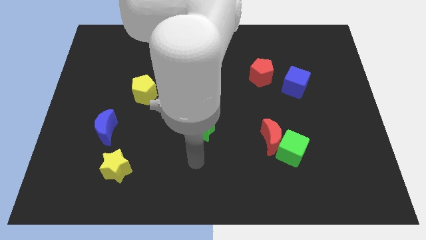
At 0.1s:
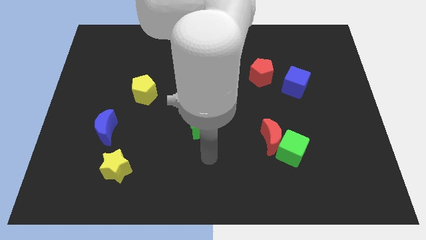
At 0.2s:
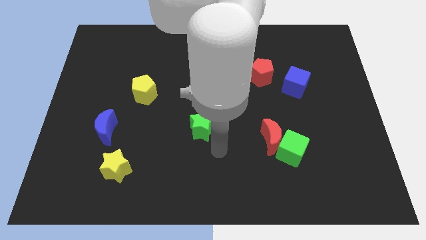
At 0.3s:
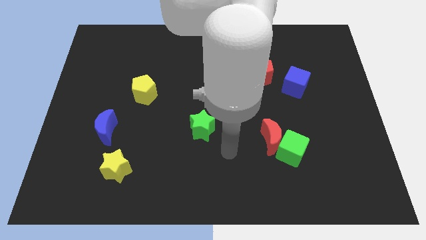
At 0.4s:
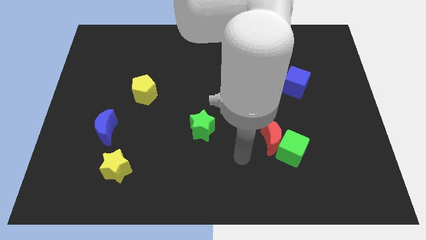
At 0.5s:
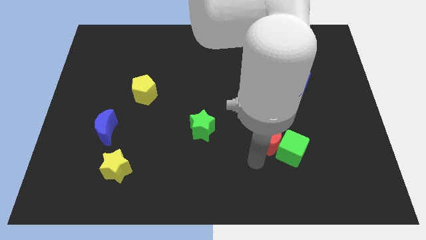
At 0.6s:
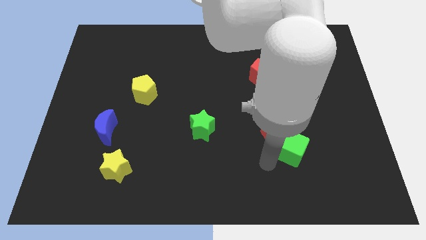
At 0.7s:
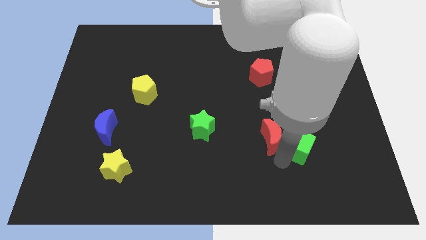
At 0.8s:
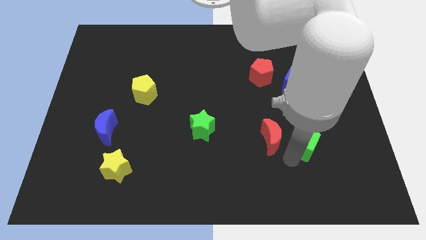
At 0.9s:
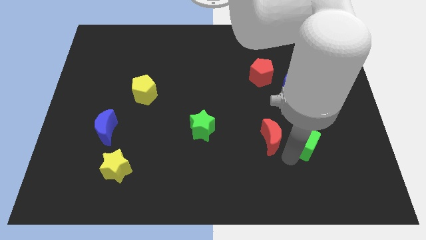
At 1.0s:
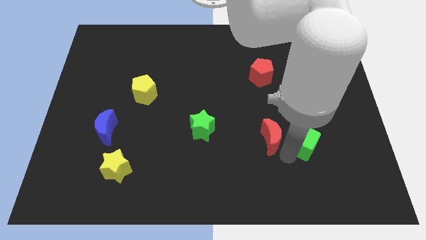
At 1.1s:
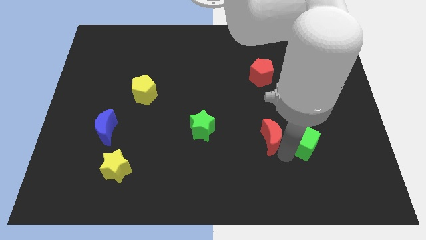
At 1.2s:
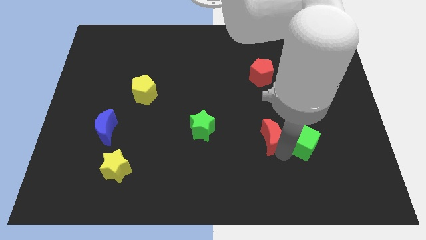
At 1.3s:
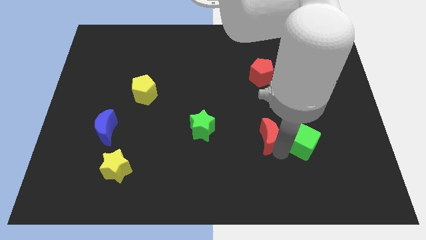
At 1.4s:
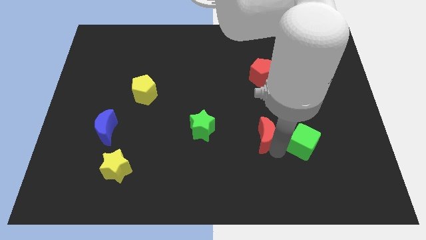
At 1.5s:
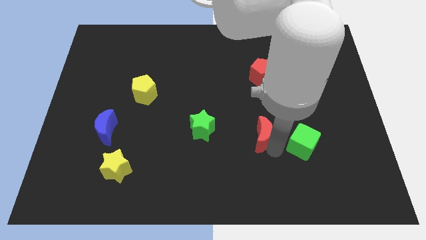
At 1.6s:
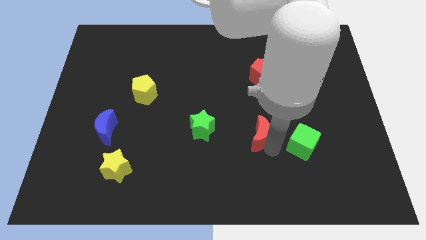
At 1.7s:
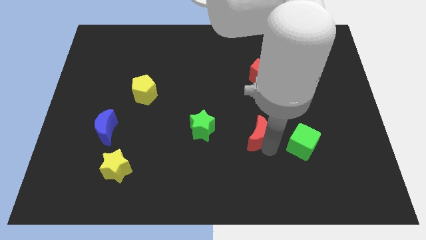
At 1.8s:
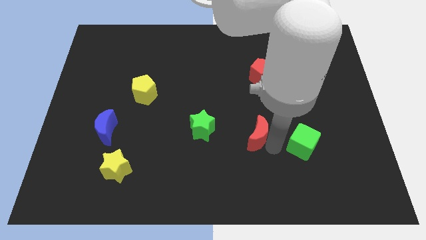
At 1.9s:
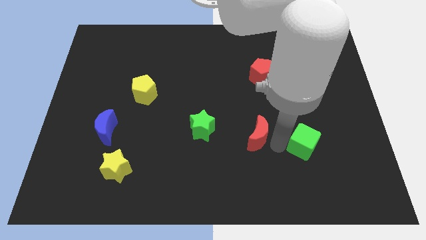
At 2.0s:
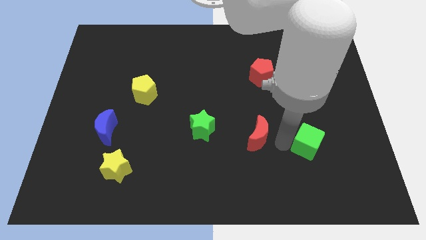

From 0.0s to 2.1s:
move the red moon away from the green cube

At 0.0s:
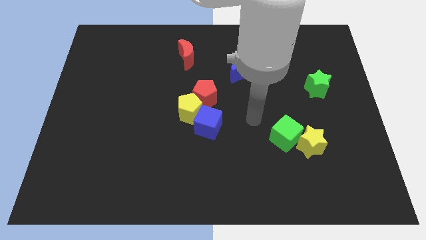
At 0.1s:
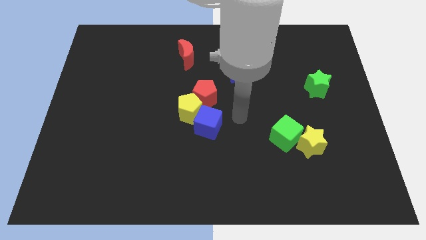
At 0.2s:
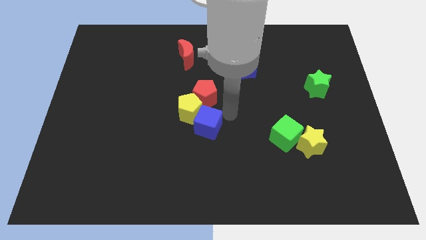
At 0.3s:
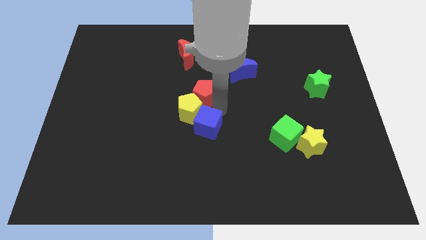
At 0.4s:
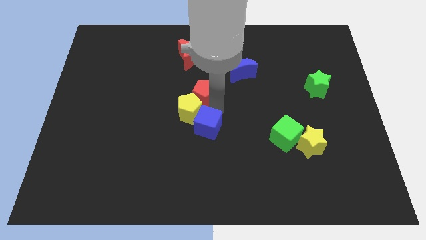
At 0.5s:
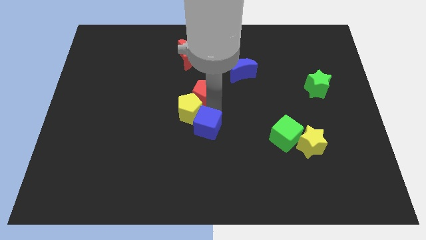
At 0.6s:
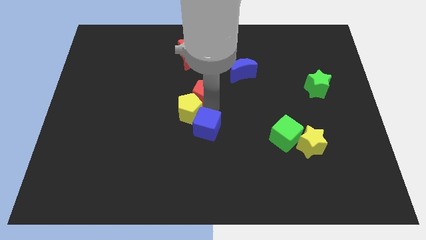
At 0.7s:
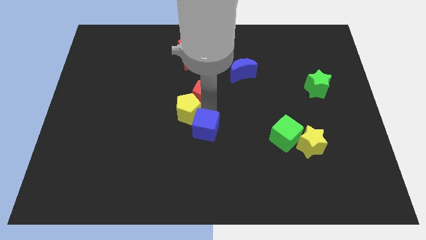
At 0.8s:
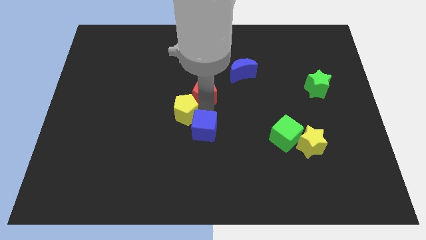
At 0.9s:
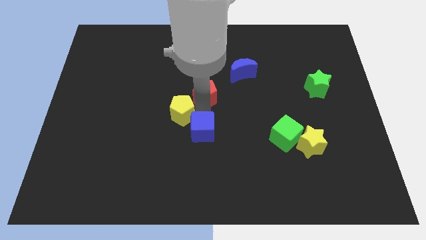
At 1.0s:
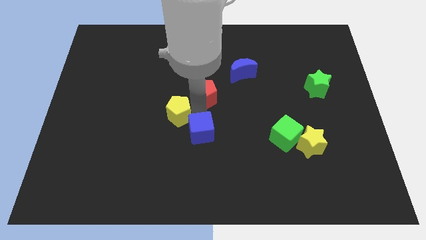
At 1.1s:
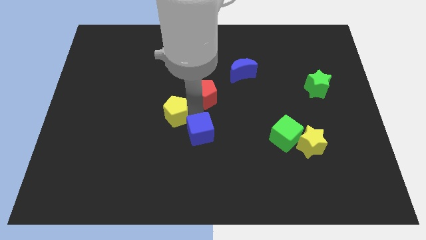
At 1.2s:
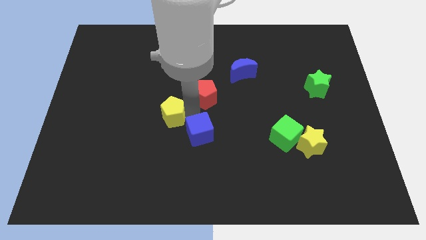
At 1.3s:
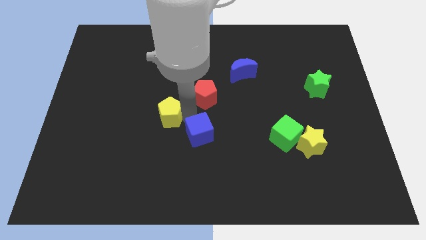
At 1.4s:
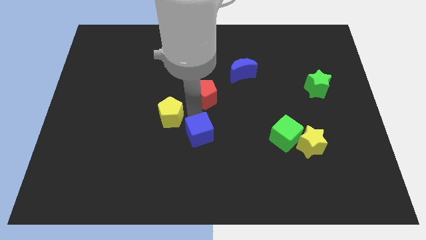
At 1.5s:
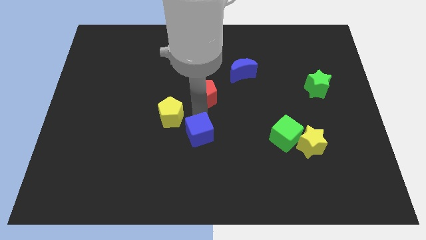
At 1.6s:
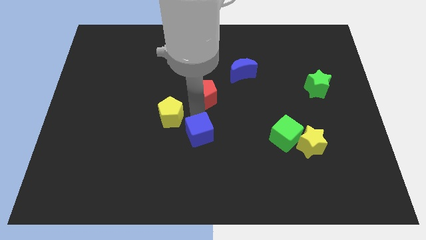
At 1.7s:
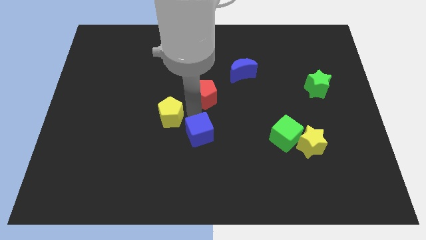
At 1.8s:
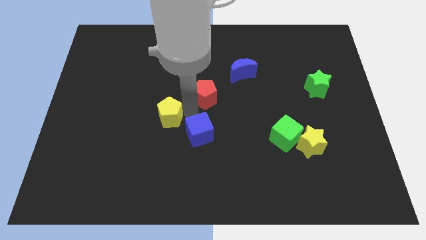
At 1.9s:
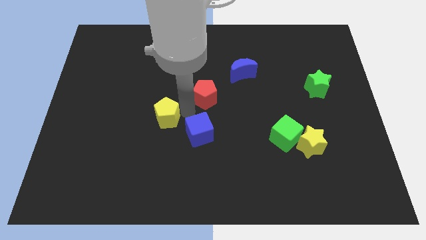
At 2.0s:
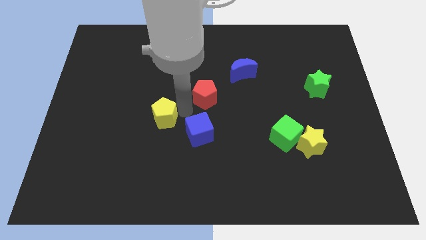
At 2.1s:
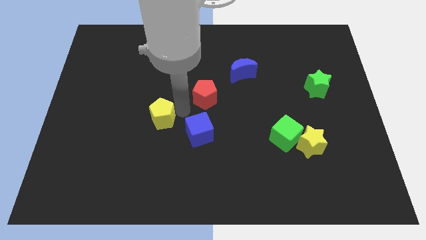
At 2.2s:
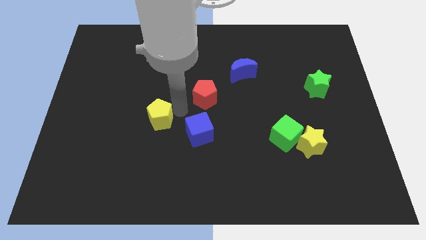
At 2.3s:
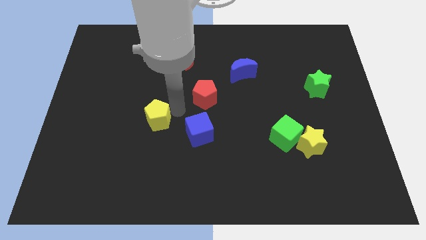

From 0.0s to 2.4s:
pull the yellow pentagon apart from the red pentagon and blue cube

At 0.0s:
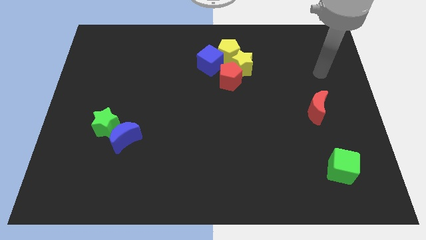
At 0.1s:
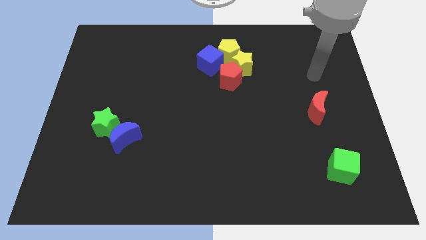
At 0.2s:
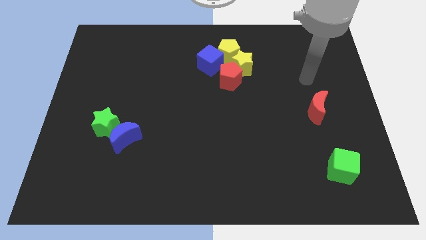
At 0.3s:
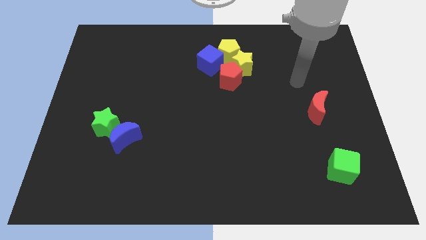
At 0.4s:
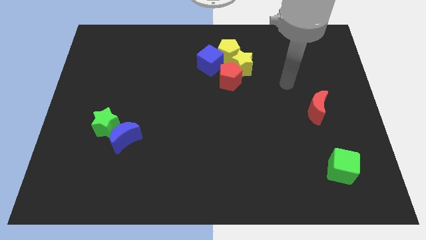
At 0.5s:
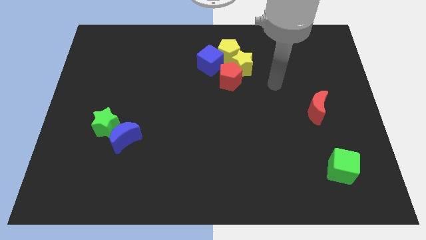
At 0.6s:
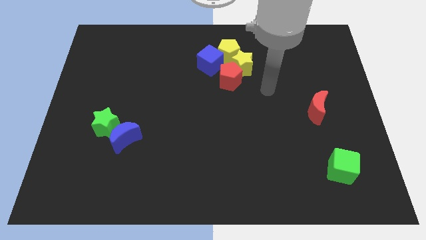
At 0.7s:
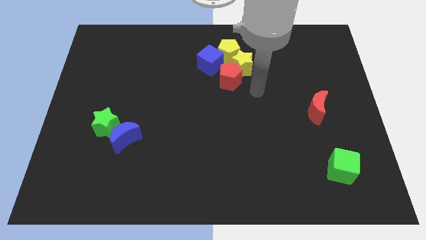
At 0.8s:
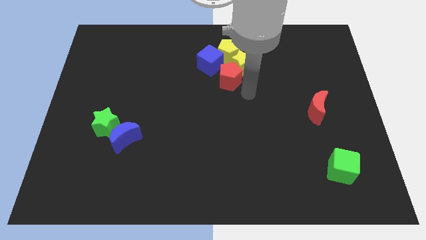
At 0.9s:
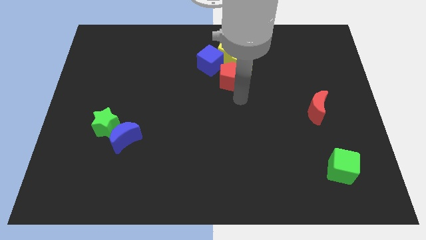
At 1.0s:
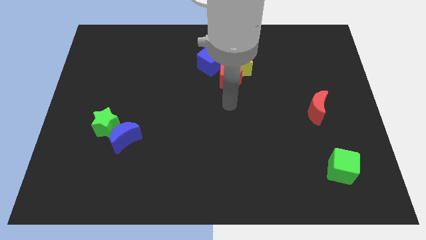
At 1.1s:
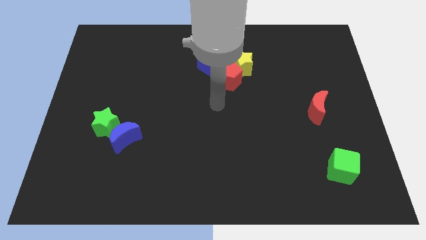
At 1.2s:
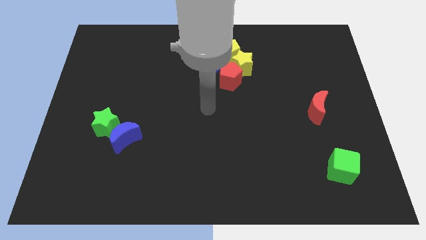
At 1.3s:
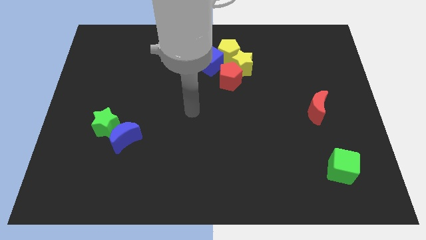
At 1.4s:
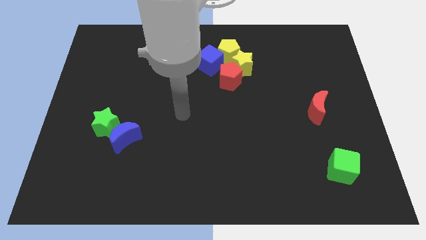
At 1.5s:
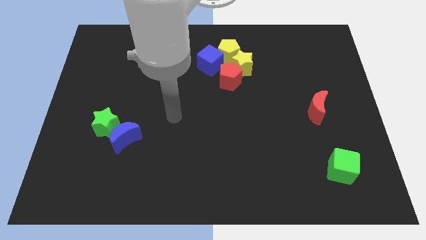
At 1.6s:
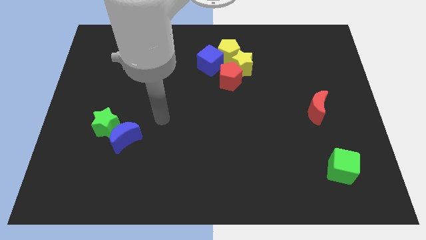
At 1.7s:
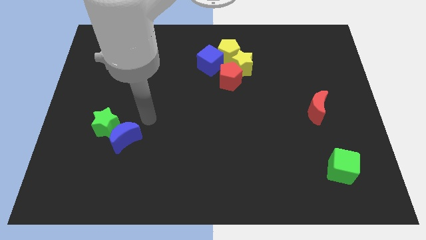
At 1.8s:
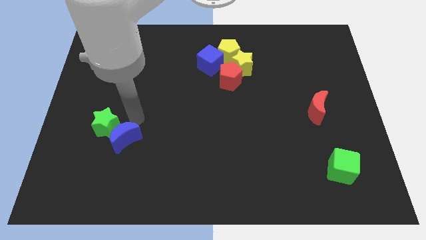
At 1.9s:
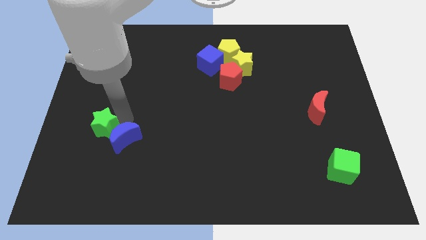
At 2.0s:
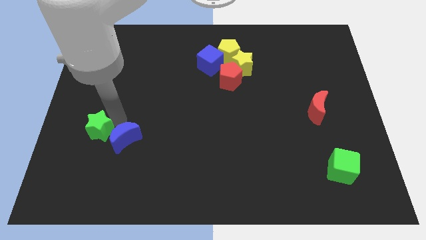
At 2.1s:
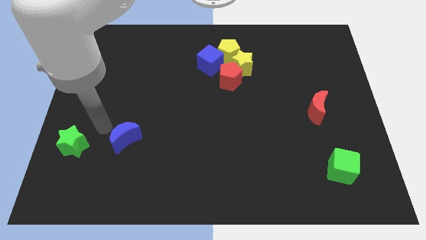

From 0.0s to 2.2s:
separate the blue moon from the green star

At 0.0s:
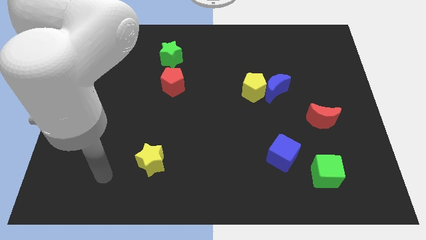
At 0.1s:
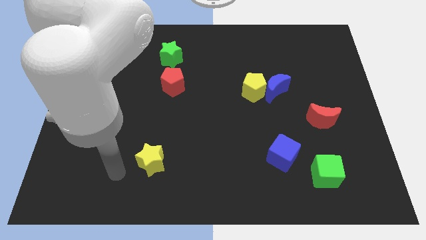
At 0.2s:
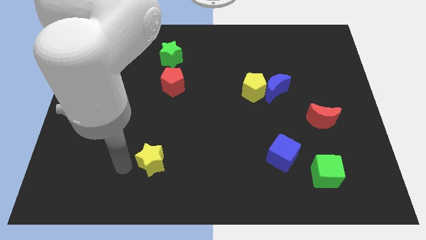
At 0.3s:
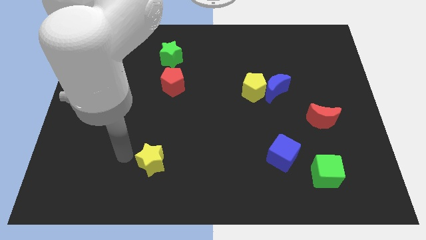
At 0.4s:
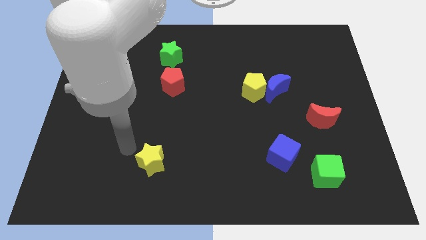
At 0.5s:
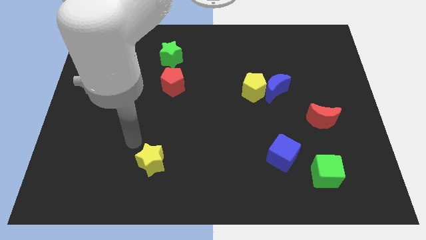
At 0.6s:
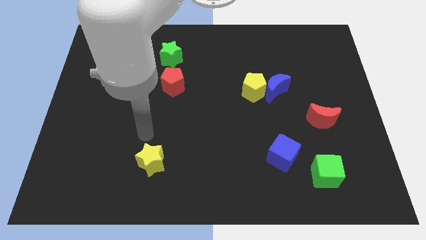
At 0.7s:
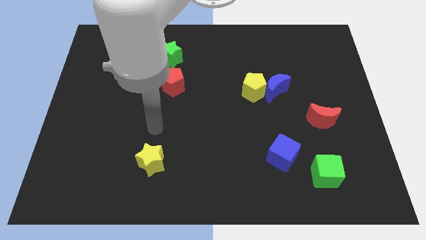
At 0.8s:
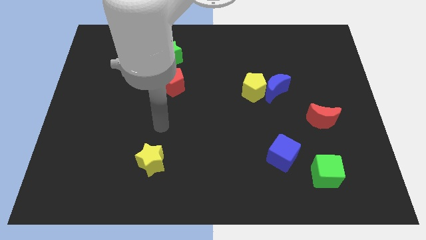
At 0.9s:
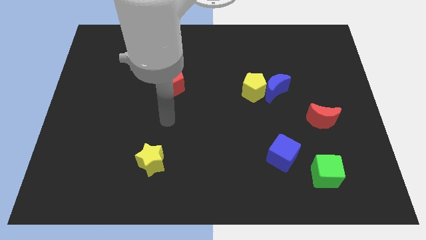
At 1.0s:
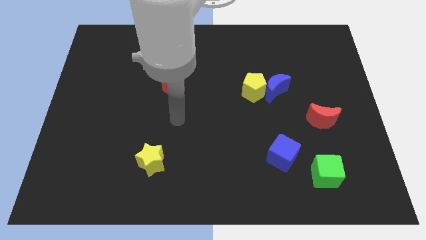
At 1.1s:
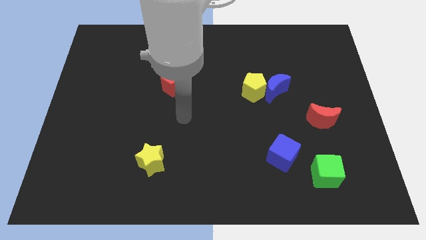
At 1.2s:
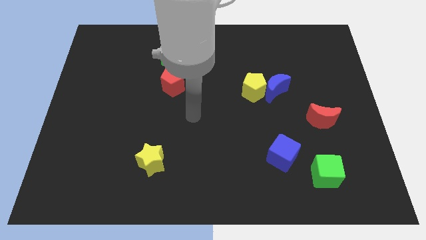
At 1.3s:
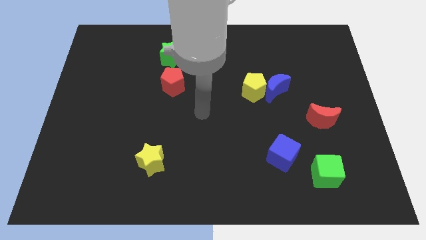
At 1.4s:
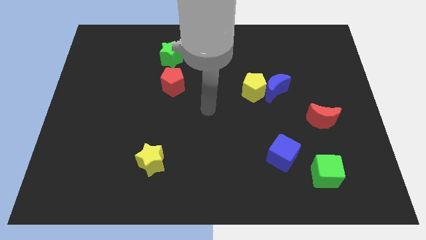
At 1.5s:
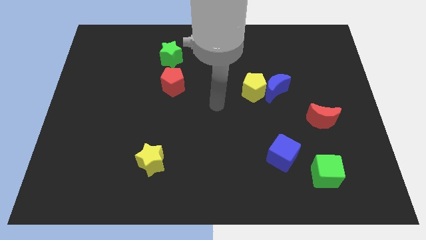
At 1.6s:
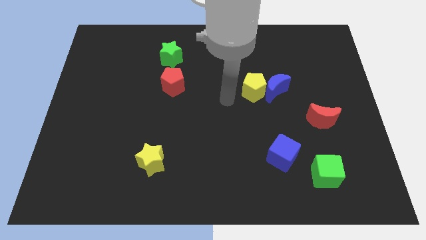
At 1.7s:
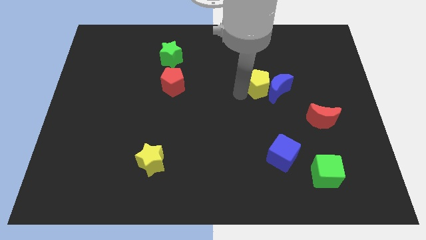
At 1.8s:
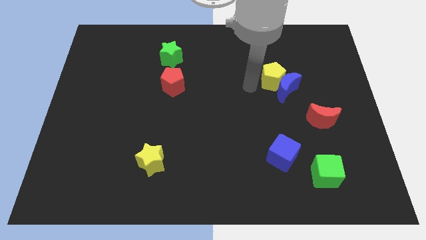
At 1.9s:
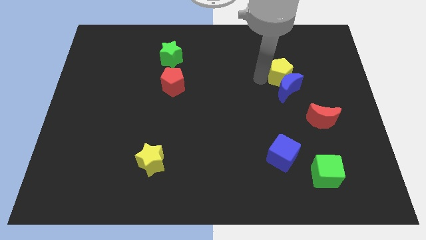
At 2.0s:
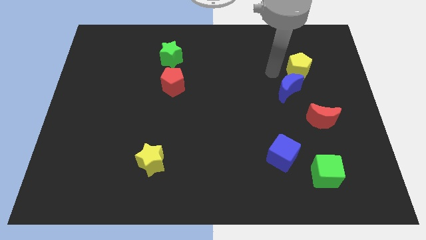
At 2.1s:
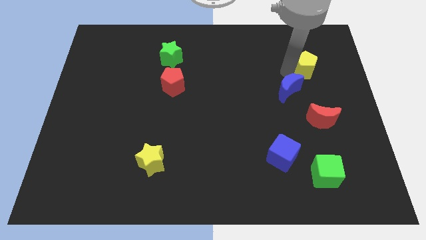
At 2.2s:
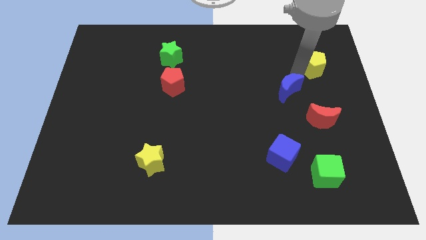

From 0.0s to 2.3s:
move the blue moon away from the yellow pentagon

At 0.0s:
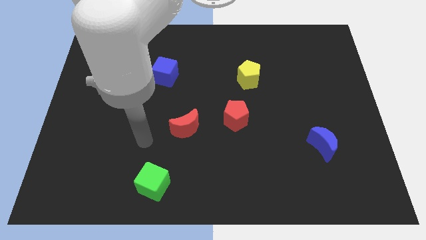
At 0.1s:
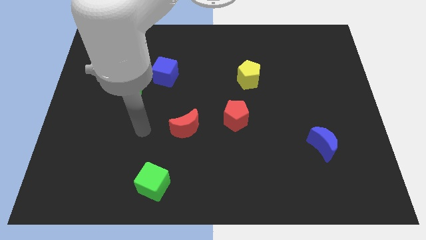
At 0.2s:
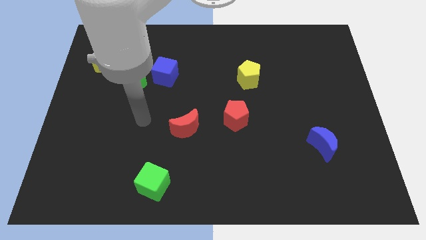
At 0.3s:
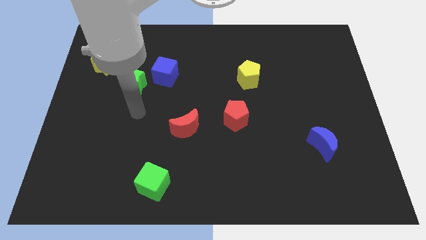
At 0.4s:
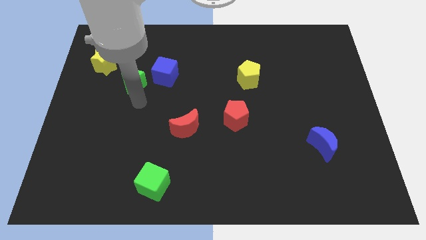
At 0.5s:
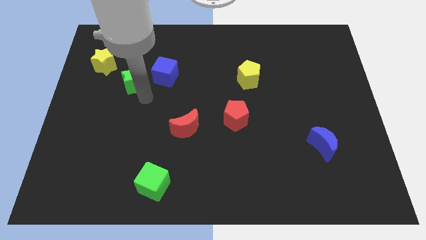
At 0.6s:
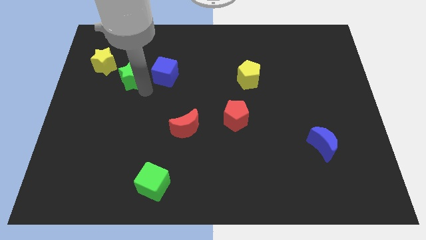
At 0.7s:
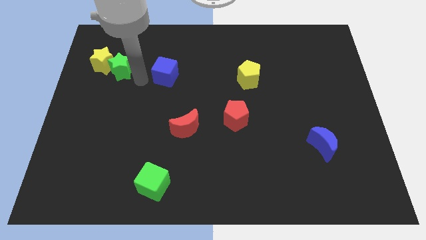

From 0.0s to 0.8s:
separate the blue cube from the green star
